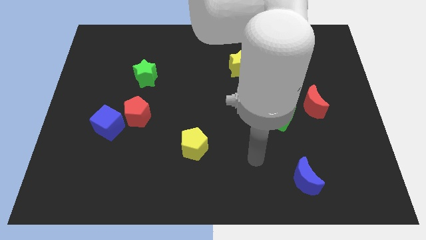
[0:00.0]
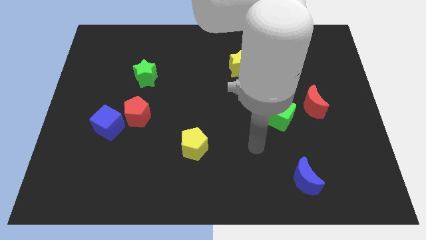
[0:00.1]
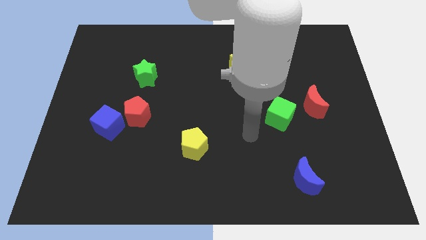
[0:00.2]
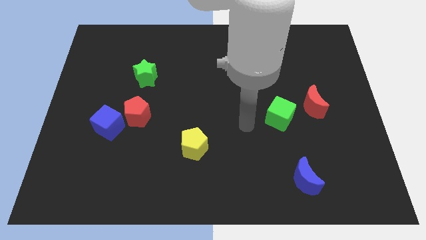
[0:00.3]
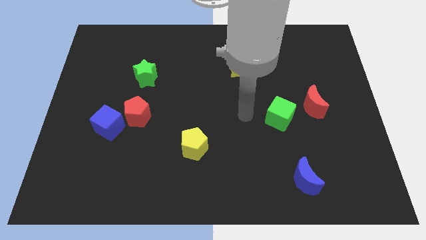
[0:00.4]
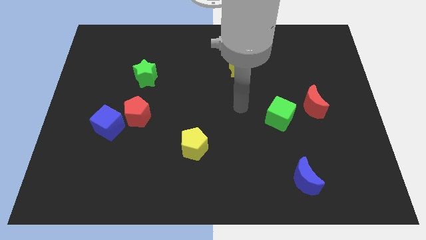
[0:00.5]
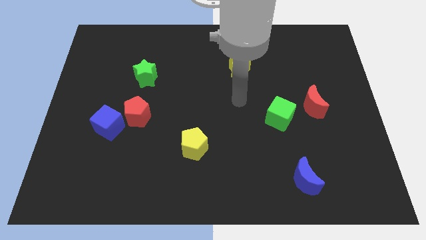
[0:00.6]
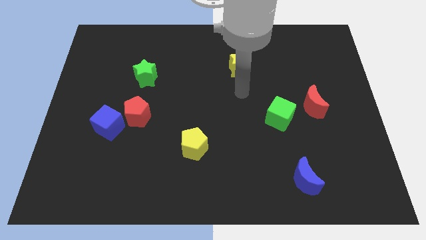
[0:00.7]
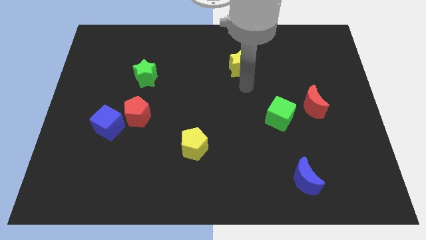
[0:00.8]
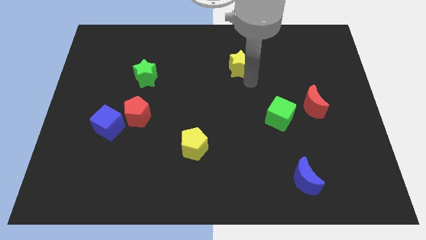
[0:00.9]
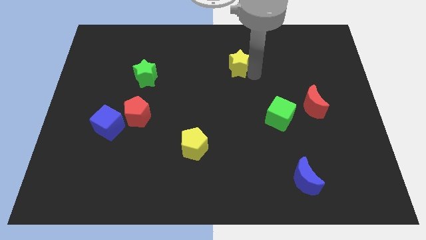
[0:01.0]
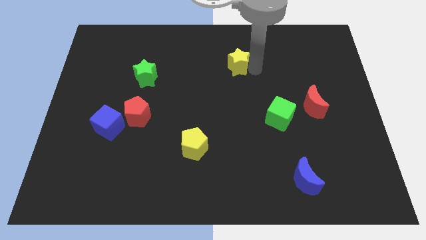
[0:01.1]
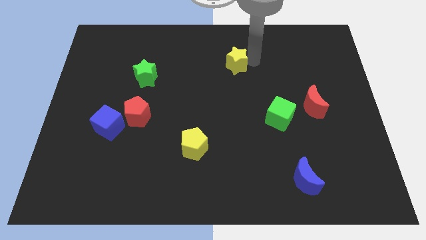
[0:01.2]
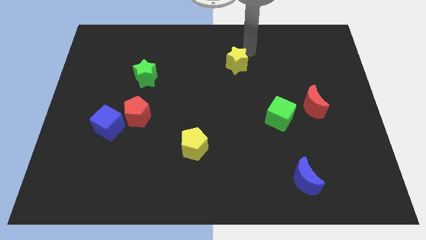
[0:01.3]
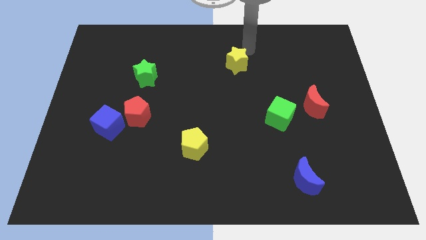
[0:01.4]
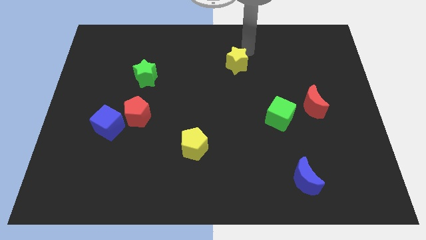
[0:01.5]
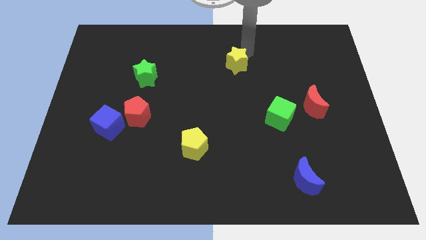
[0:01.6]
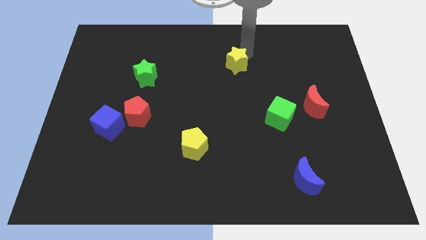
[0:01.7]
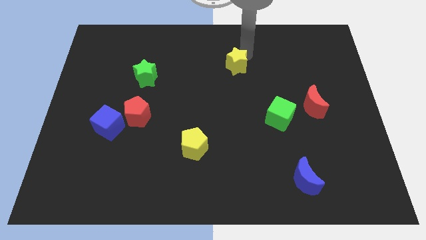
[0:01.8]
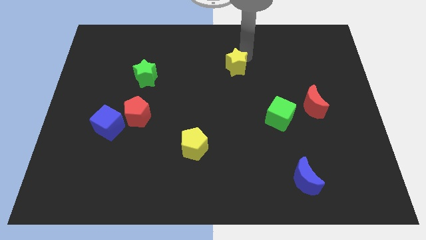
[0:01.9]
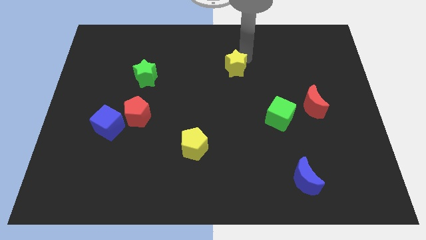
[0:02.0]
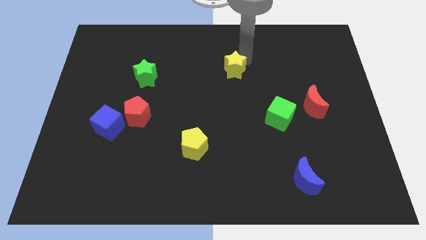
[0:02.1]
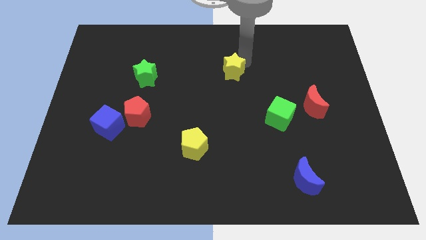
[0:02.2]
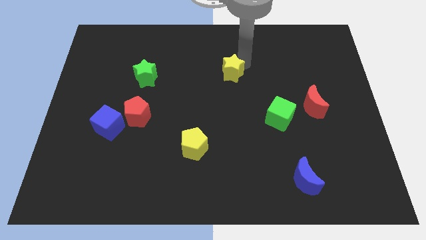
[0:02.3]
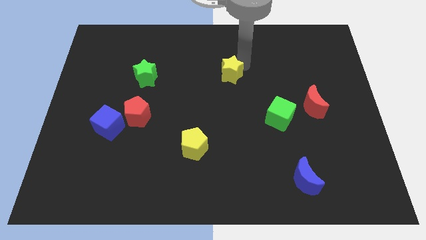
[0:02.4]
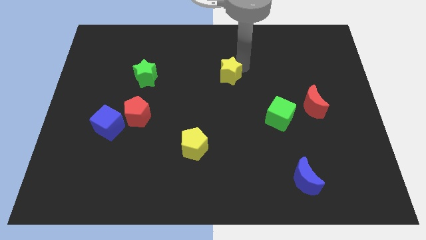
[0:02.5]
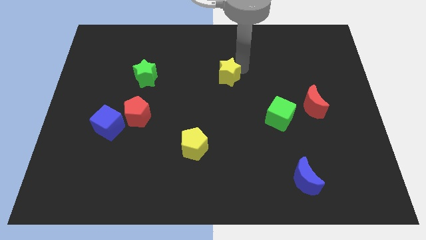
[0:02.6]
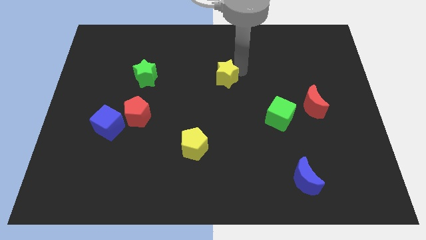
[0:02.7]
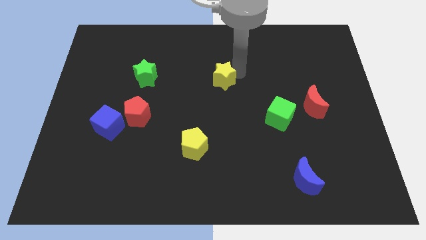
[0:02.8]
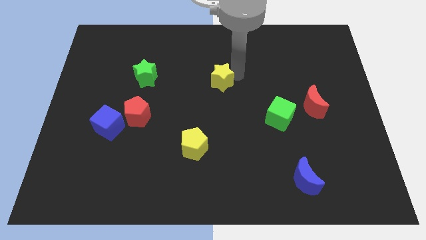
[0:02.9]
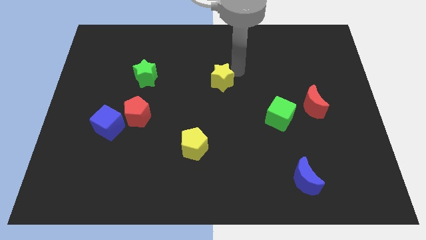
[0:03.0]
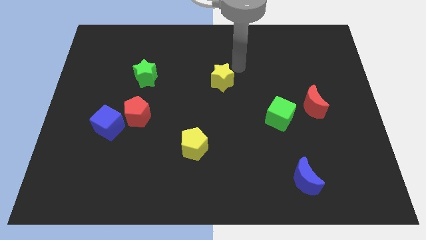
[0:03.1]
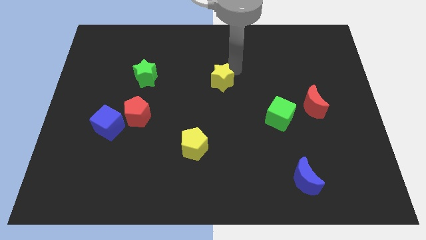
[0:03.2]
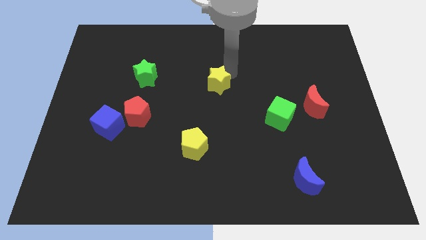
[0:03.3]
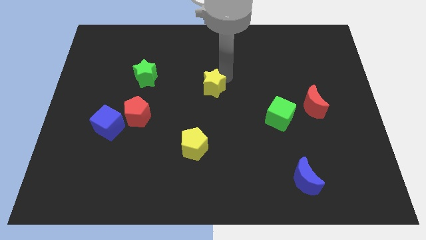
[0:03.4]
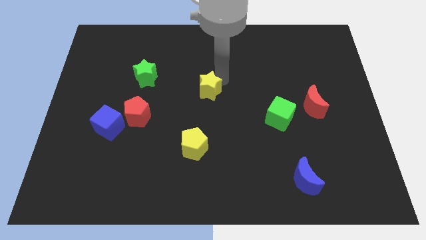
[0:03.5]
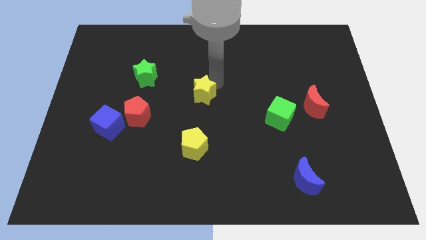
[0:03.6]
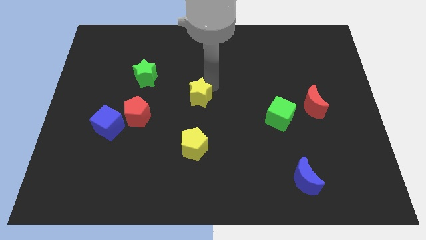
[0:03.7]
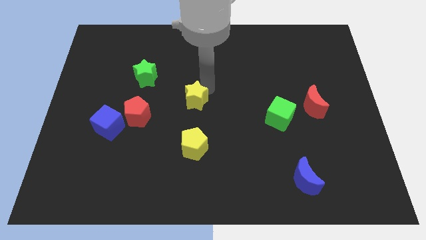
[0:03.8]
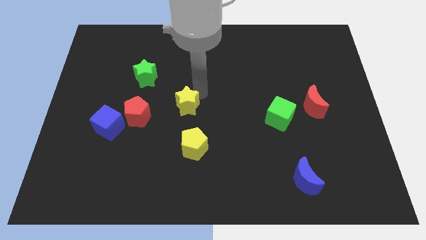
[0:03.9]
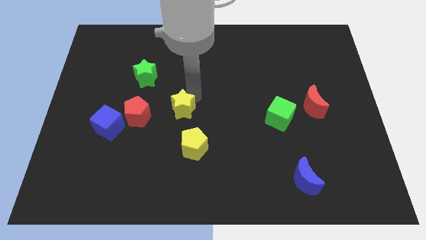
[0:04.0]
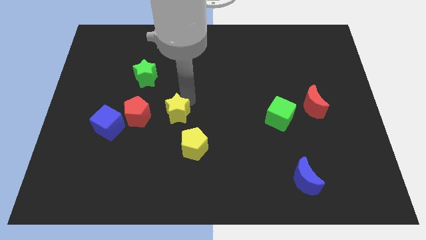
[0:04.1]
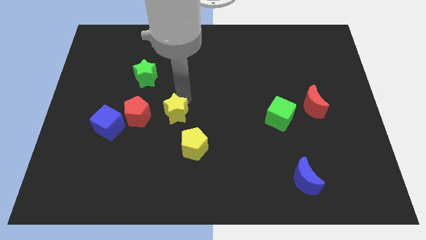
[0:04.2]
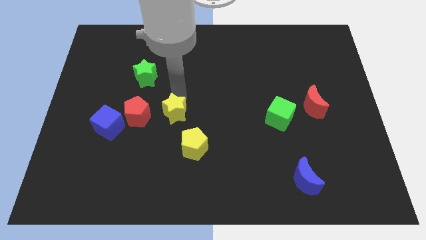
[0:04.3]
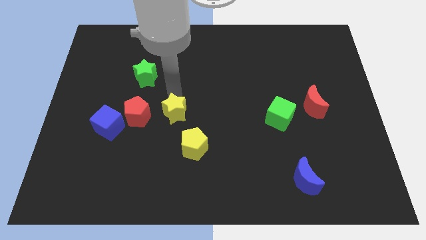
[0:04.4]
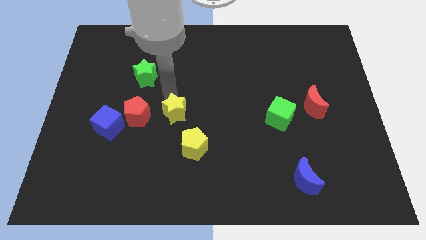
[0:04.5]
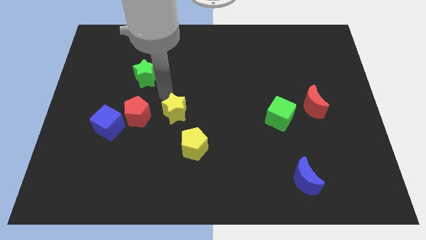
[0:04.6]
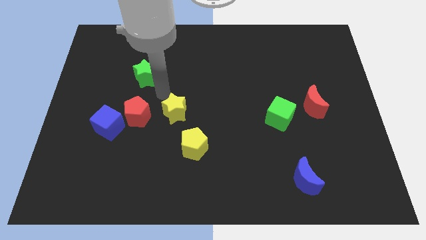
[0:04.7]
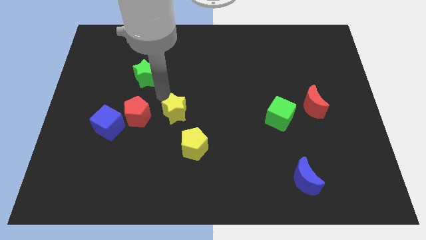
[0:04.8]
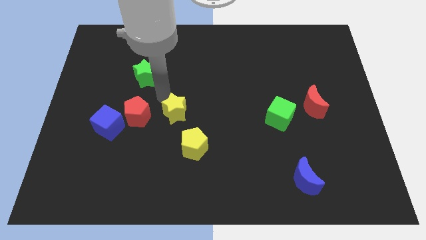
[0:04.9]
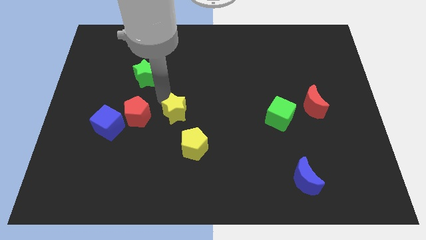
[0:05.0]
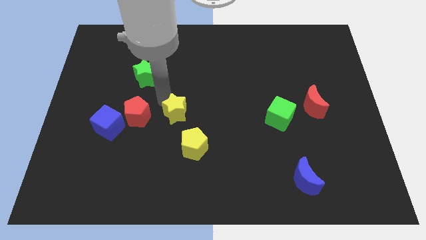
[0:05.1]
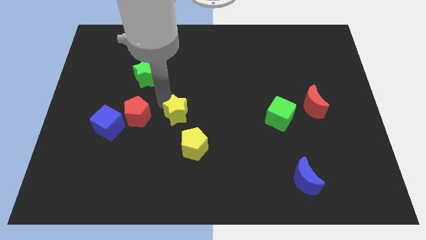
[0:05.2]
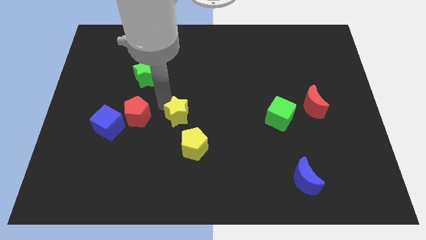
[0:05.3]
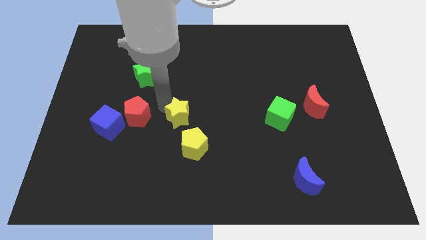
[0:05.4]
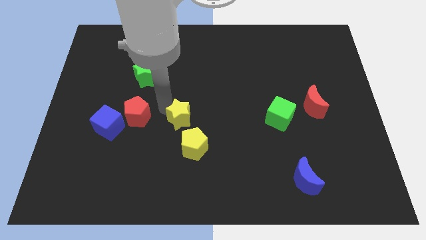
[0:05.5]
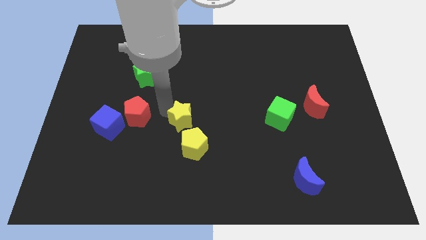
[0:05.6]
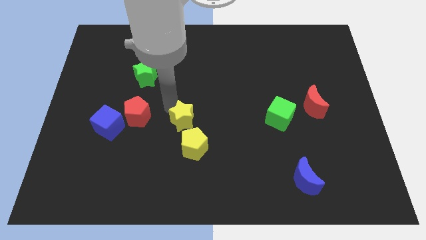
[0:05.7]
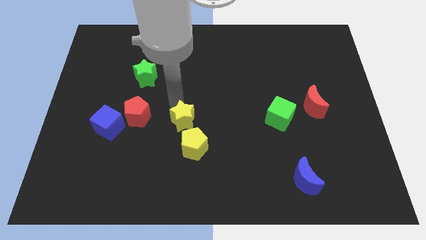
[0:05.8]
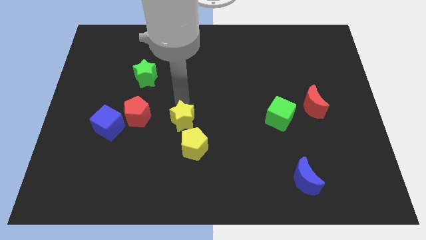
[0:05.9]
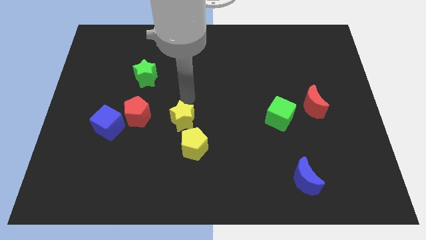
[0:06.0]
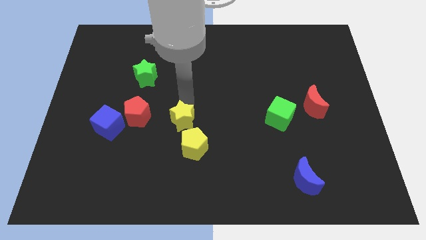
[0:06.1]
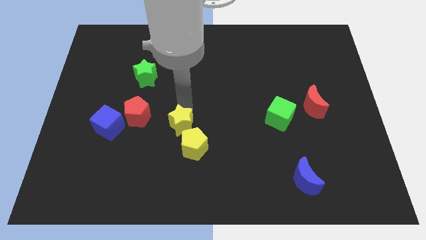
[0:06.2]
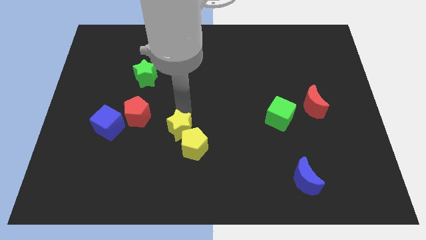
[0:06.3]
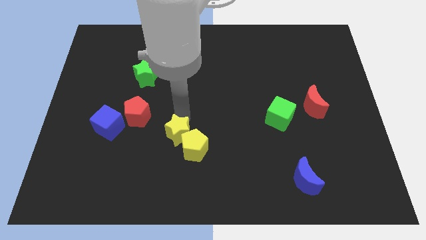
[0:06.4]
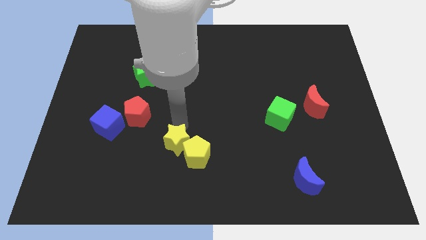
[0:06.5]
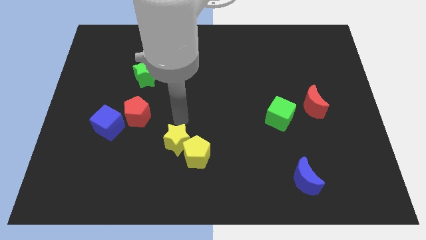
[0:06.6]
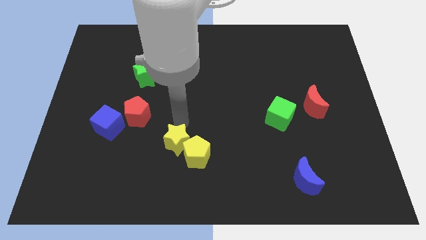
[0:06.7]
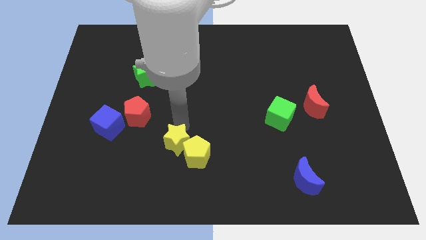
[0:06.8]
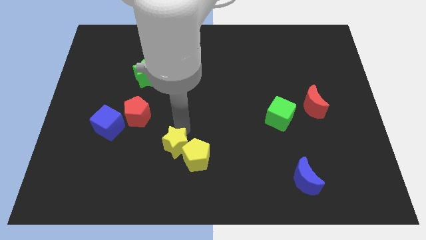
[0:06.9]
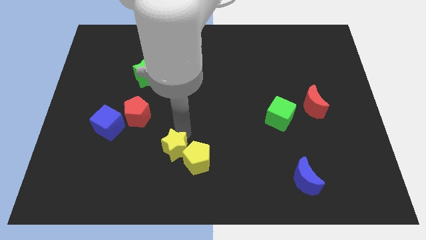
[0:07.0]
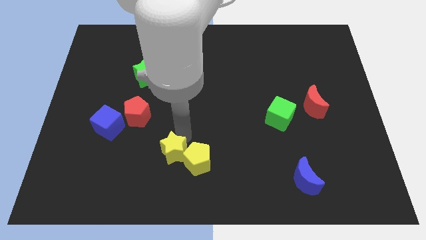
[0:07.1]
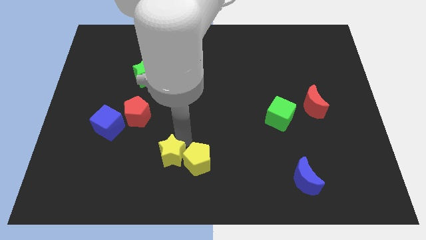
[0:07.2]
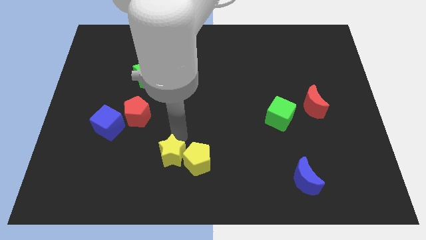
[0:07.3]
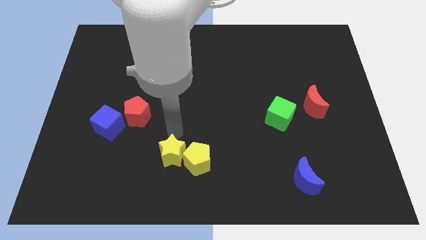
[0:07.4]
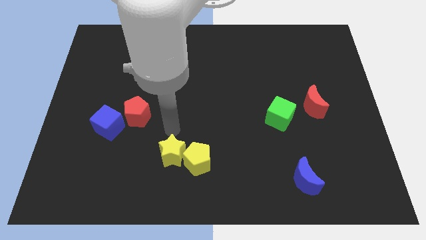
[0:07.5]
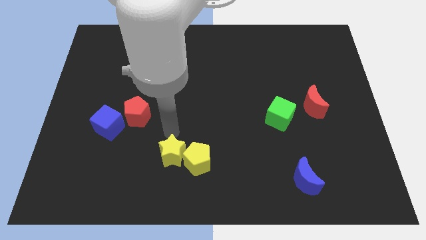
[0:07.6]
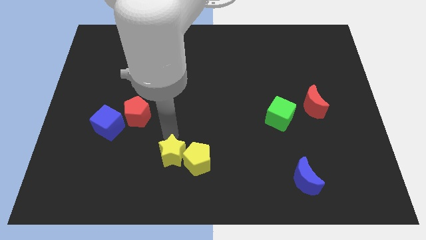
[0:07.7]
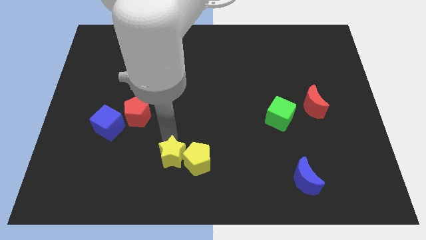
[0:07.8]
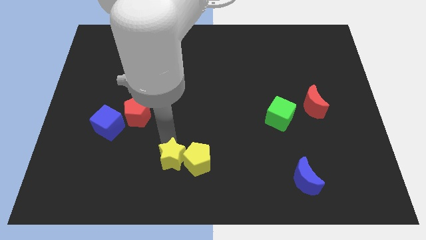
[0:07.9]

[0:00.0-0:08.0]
slide the yellow star diagonally down and to the left of the yellow pentagon
